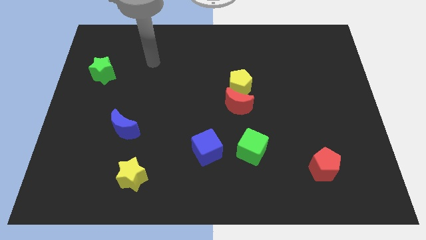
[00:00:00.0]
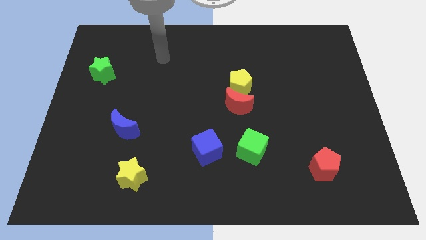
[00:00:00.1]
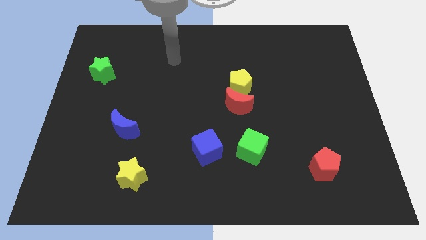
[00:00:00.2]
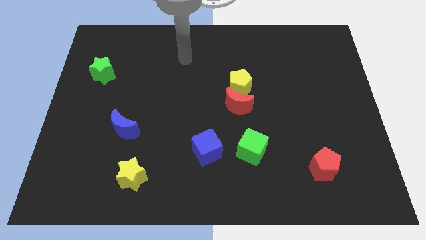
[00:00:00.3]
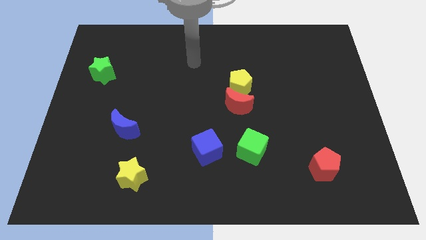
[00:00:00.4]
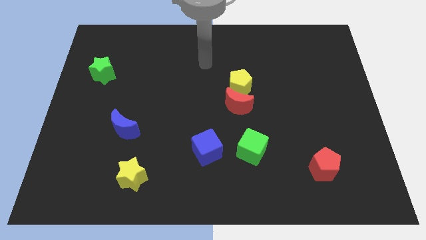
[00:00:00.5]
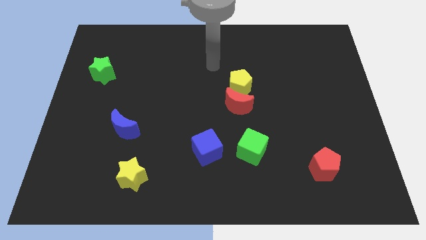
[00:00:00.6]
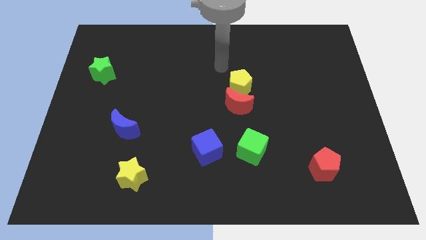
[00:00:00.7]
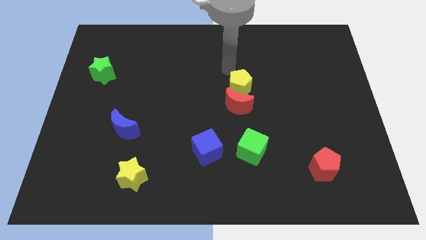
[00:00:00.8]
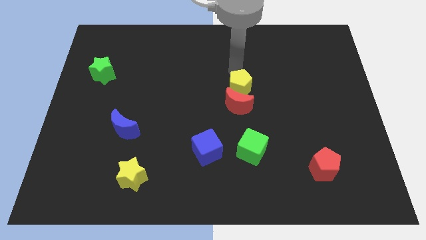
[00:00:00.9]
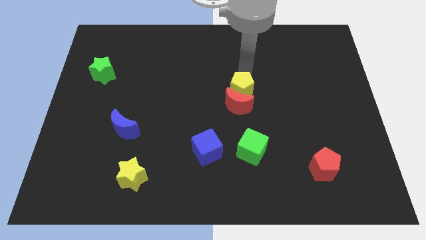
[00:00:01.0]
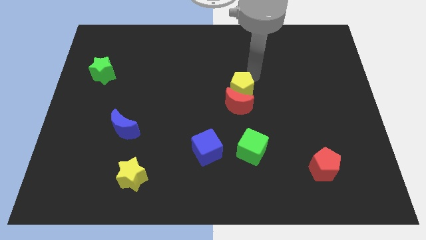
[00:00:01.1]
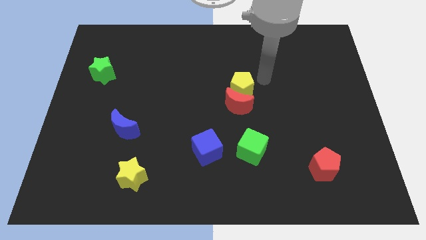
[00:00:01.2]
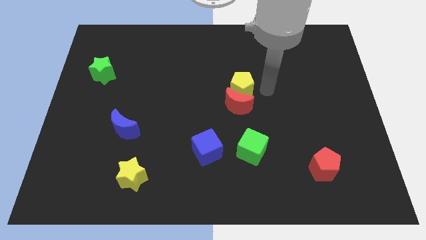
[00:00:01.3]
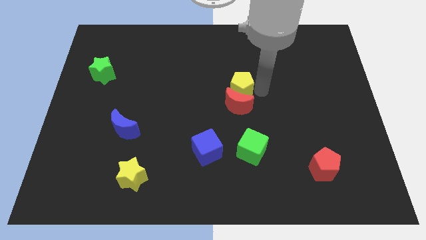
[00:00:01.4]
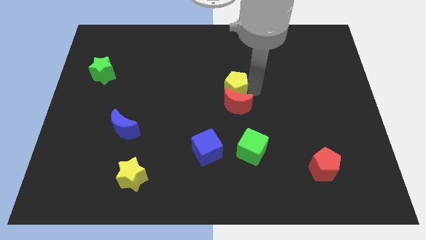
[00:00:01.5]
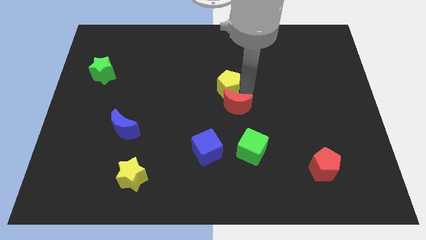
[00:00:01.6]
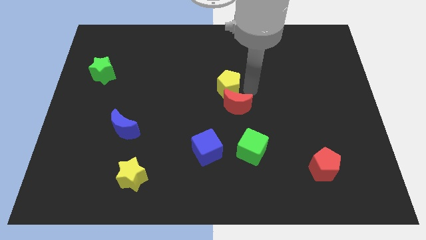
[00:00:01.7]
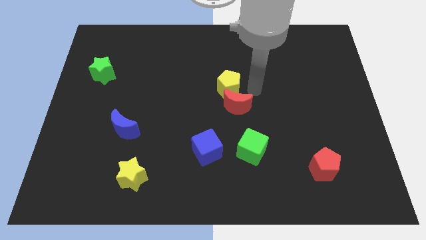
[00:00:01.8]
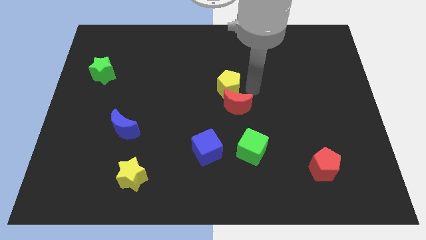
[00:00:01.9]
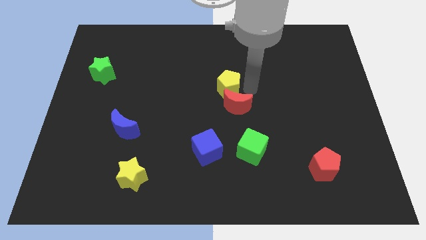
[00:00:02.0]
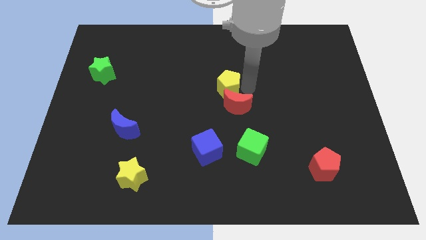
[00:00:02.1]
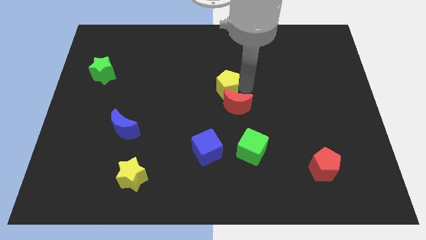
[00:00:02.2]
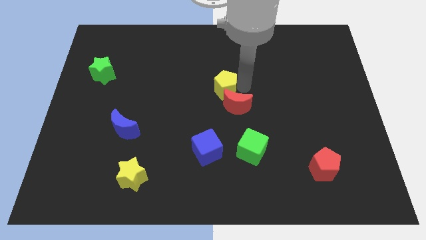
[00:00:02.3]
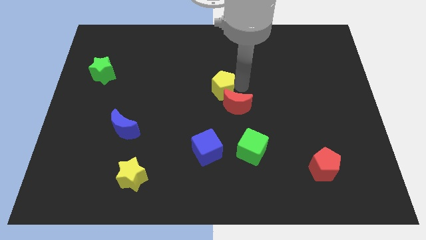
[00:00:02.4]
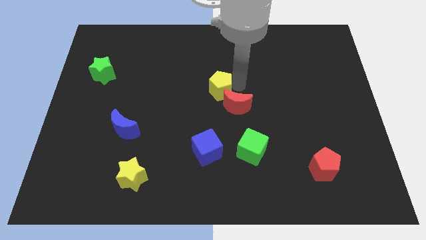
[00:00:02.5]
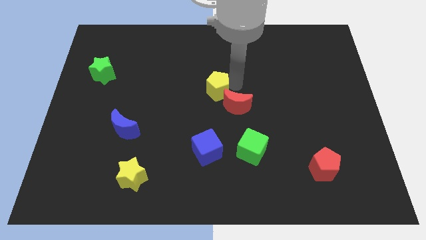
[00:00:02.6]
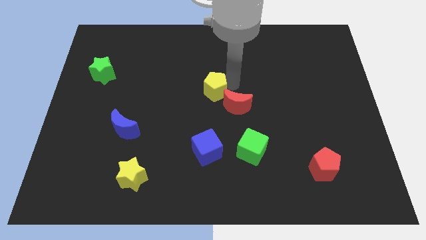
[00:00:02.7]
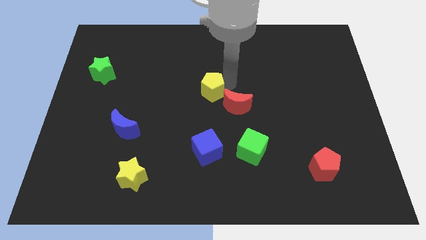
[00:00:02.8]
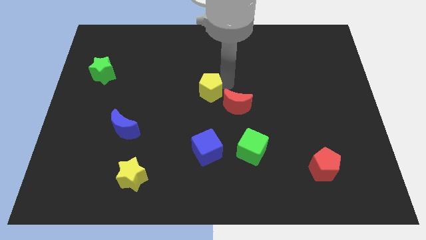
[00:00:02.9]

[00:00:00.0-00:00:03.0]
slightly move the yellow pentagon left

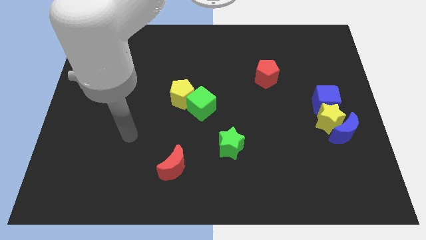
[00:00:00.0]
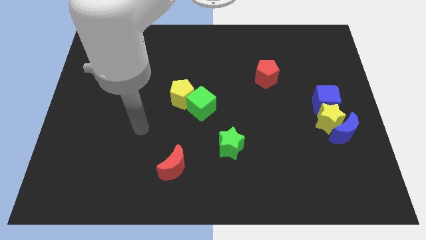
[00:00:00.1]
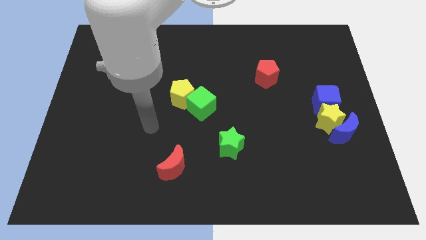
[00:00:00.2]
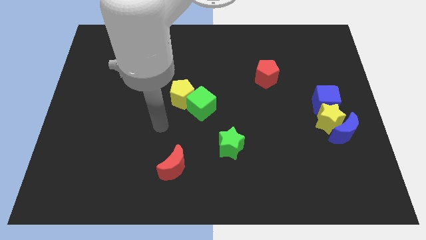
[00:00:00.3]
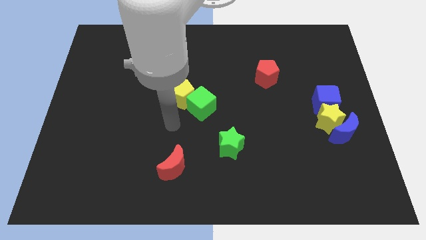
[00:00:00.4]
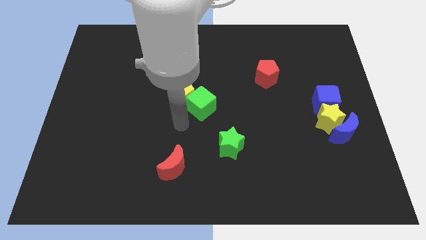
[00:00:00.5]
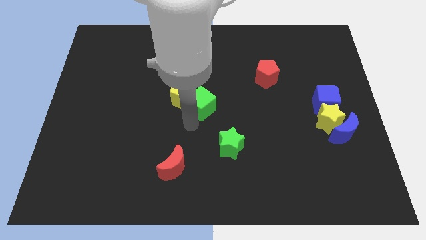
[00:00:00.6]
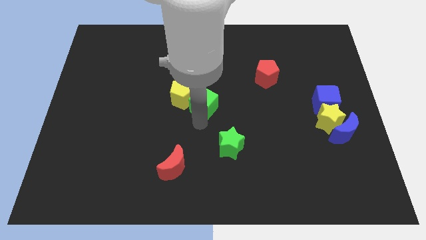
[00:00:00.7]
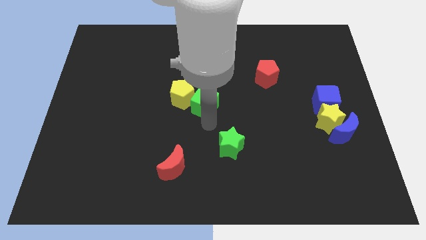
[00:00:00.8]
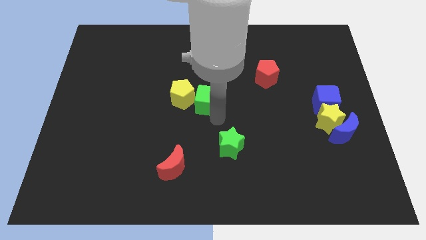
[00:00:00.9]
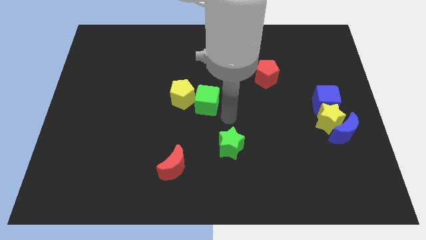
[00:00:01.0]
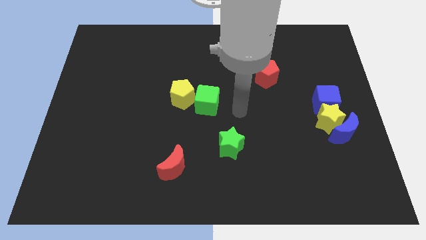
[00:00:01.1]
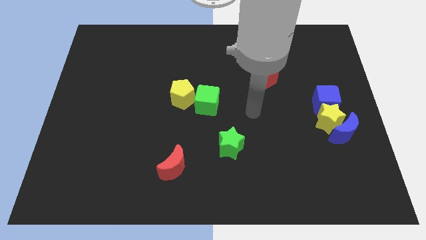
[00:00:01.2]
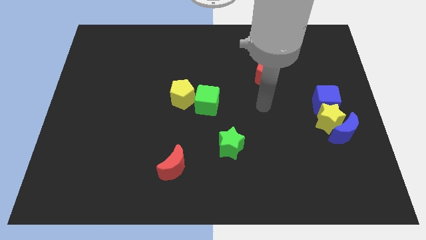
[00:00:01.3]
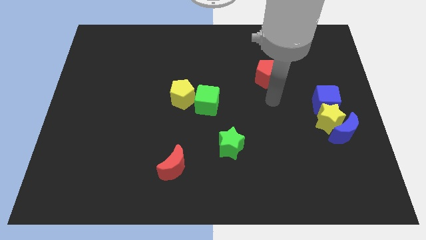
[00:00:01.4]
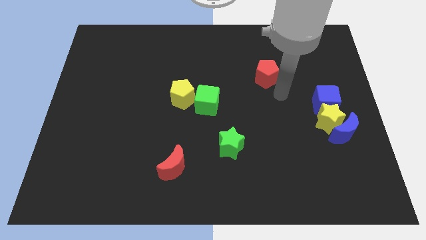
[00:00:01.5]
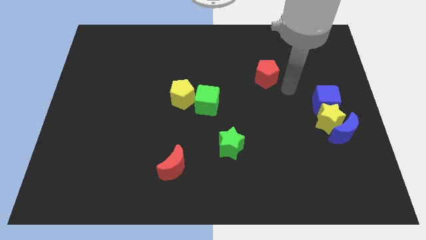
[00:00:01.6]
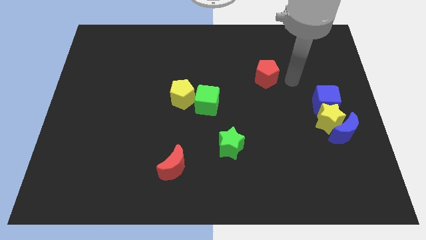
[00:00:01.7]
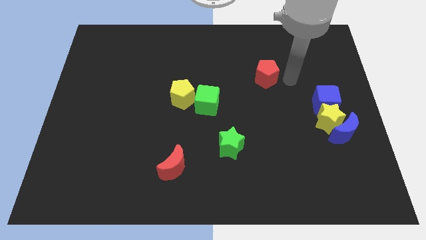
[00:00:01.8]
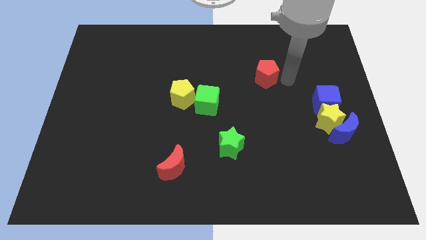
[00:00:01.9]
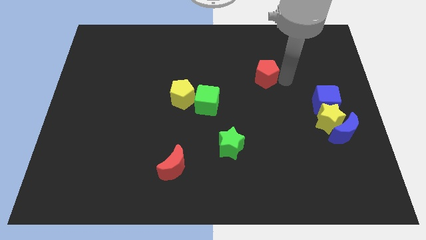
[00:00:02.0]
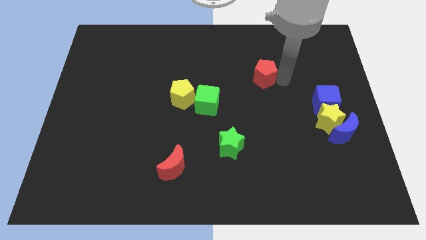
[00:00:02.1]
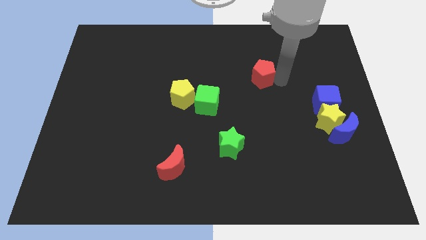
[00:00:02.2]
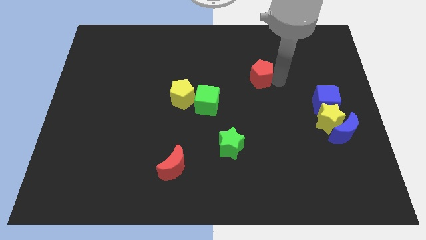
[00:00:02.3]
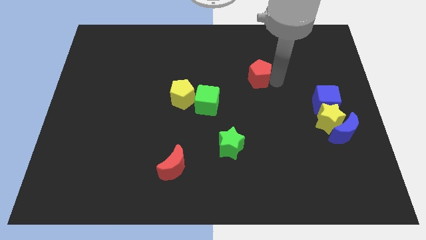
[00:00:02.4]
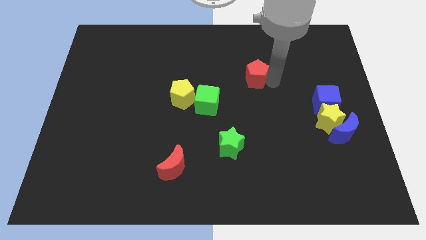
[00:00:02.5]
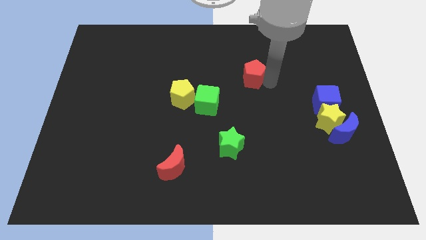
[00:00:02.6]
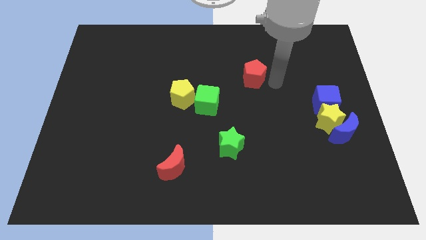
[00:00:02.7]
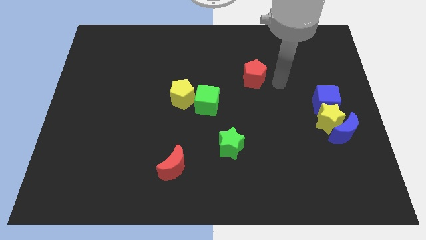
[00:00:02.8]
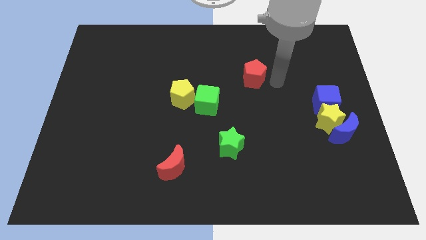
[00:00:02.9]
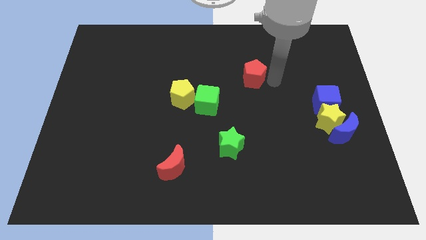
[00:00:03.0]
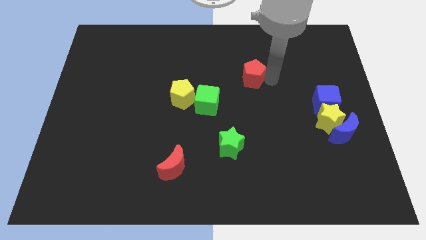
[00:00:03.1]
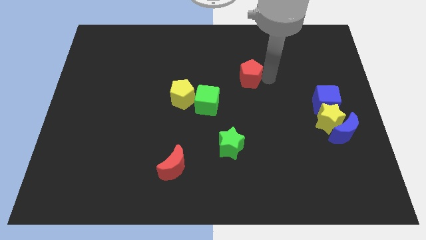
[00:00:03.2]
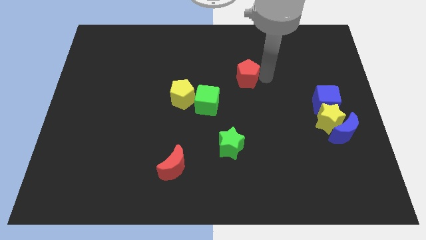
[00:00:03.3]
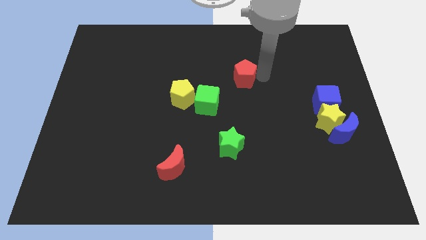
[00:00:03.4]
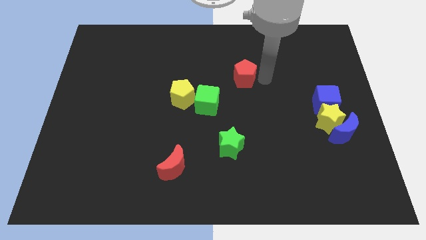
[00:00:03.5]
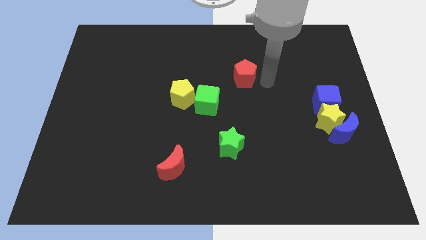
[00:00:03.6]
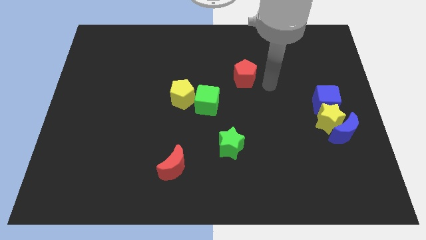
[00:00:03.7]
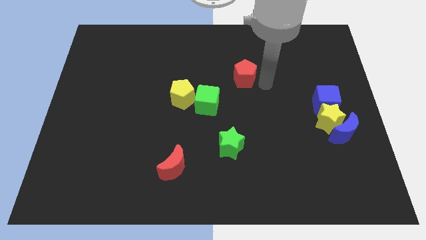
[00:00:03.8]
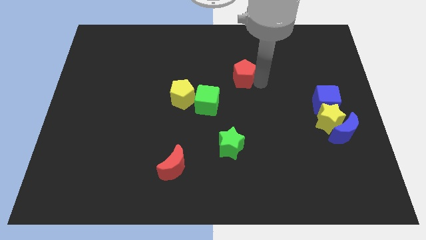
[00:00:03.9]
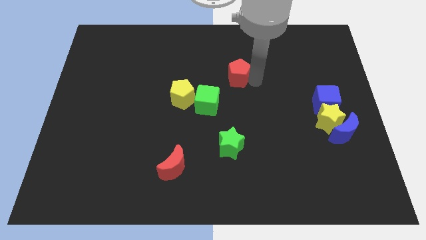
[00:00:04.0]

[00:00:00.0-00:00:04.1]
push the red pentagon somewhat left

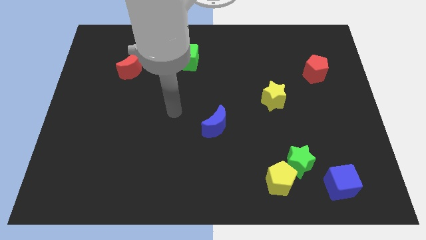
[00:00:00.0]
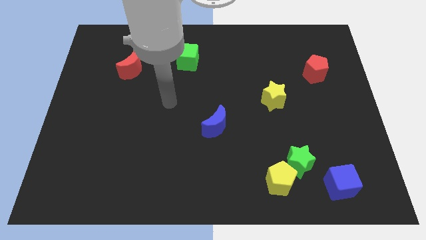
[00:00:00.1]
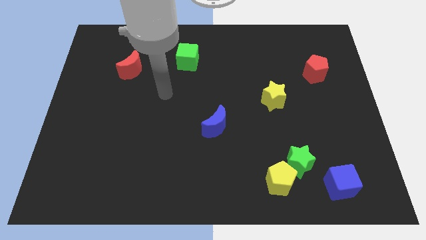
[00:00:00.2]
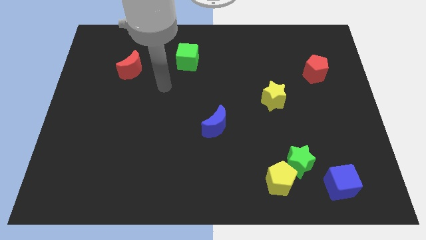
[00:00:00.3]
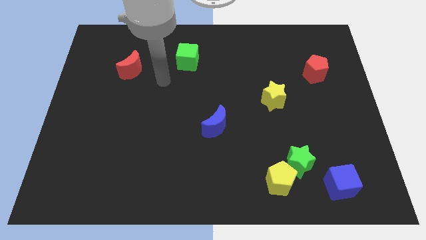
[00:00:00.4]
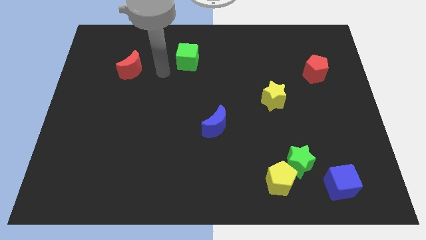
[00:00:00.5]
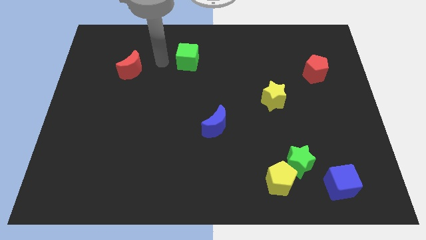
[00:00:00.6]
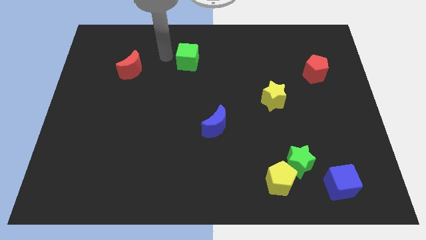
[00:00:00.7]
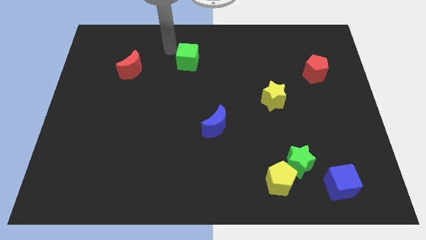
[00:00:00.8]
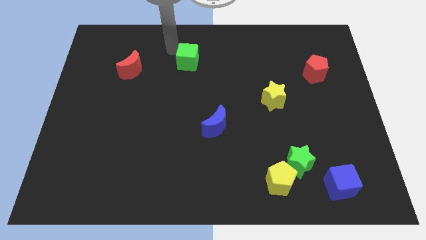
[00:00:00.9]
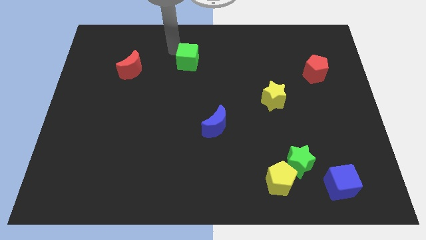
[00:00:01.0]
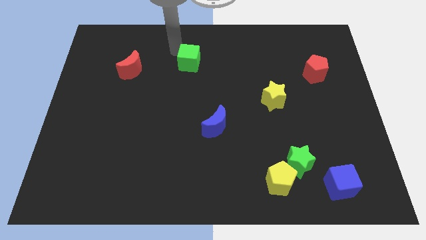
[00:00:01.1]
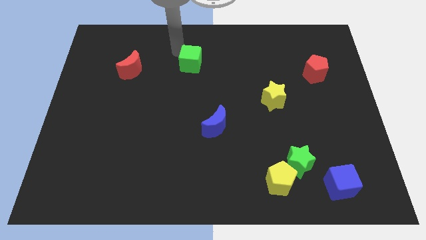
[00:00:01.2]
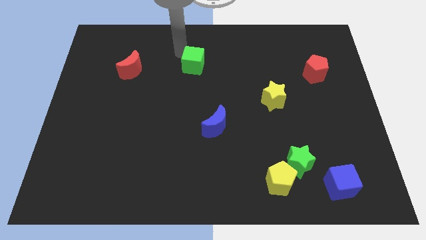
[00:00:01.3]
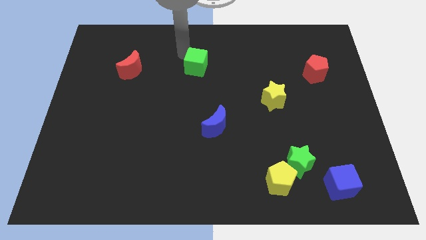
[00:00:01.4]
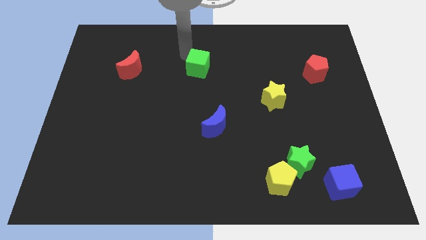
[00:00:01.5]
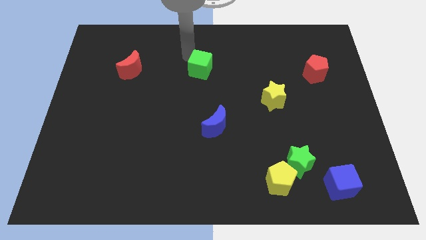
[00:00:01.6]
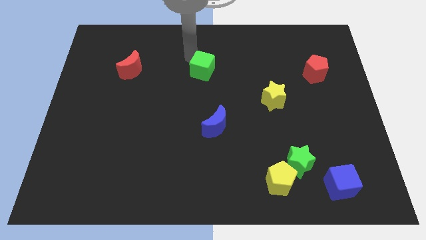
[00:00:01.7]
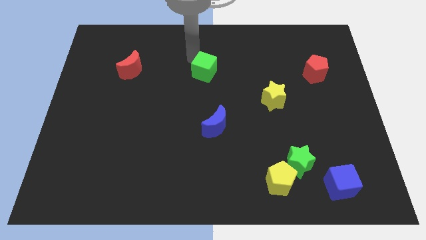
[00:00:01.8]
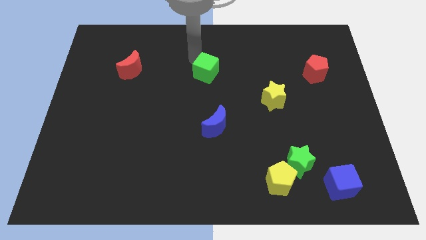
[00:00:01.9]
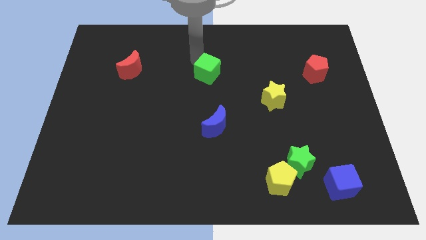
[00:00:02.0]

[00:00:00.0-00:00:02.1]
slide the green cube slightly downwards and to the right
